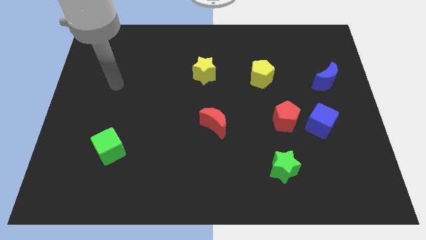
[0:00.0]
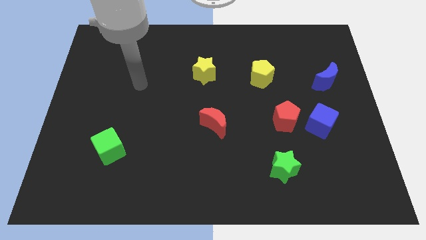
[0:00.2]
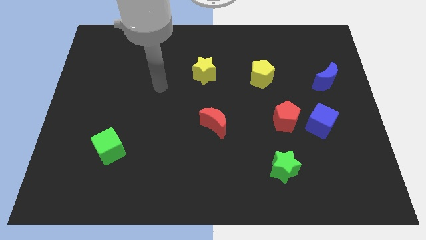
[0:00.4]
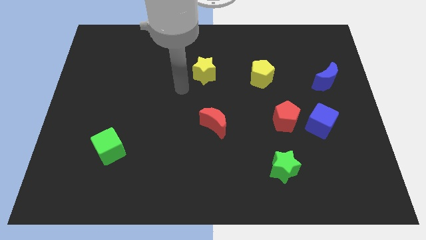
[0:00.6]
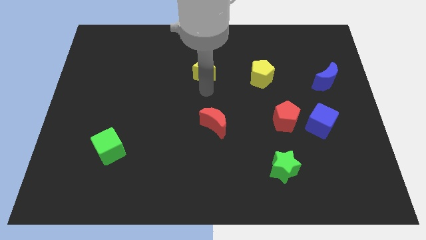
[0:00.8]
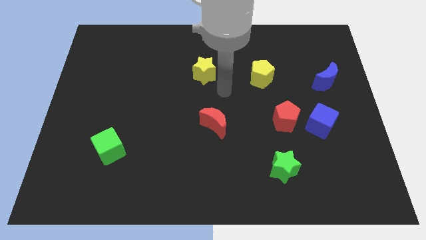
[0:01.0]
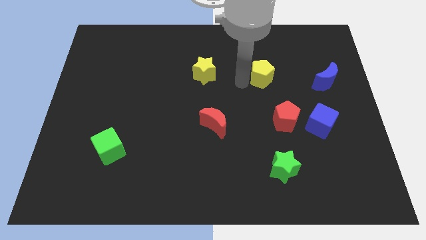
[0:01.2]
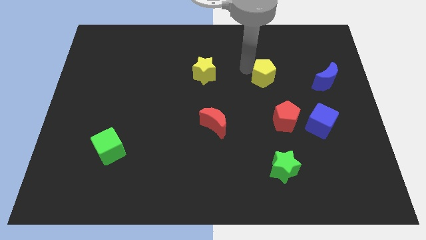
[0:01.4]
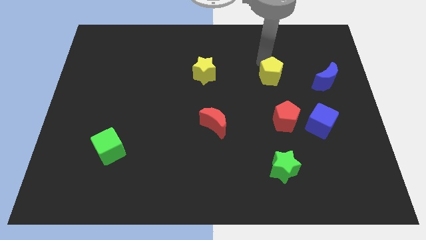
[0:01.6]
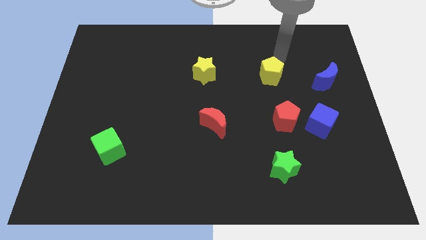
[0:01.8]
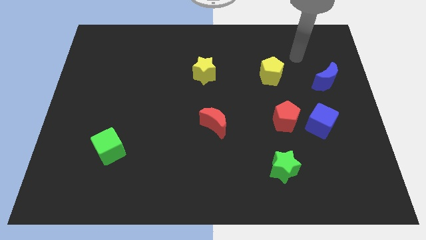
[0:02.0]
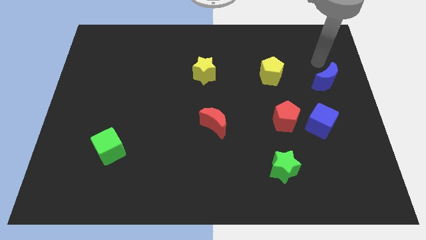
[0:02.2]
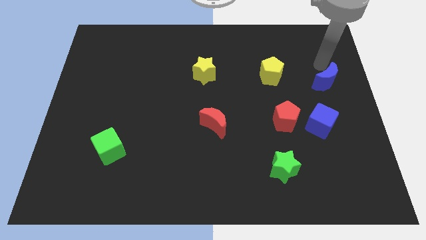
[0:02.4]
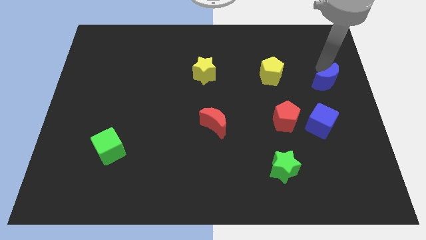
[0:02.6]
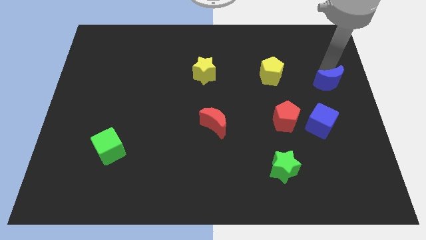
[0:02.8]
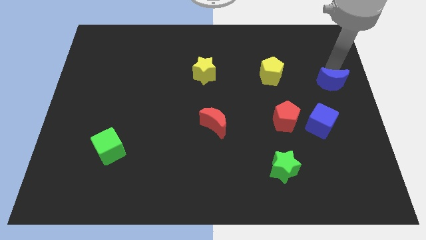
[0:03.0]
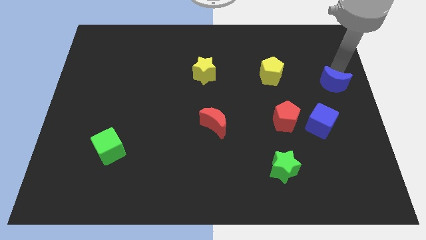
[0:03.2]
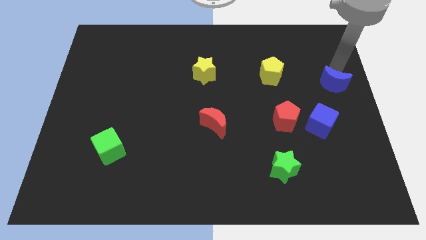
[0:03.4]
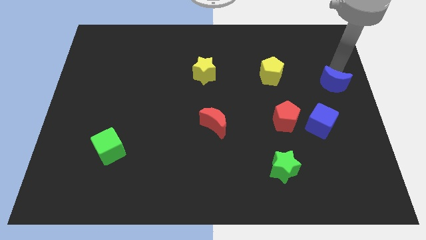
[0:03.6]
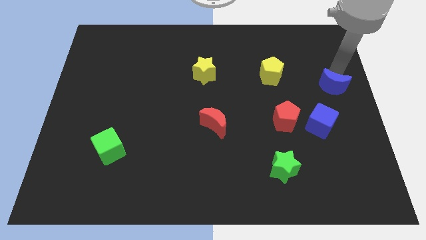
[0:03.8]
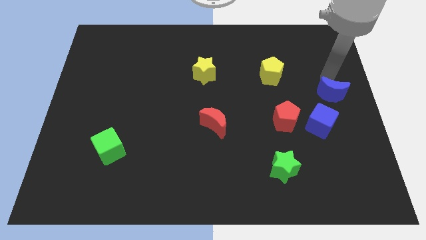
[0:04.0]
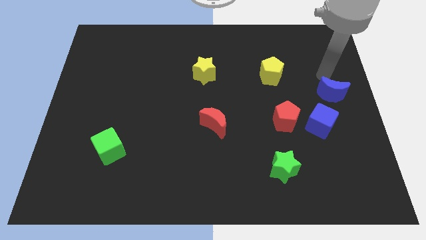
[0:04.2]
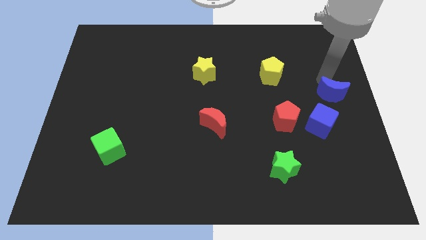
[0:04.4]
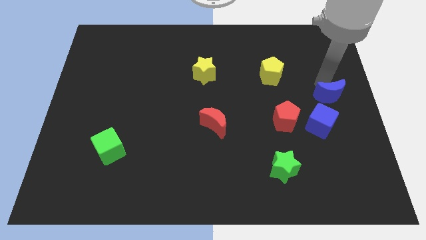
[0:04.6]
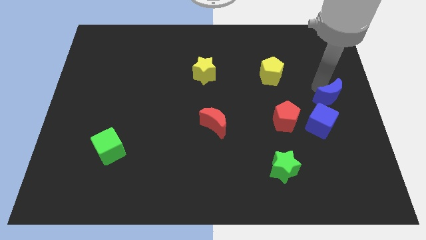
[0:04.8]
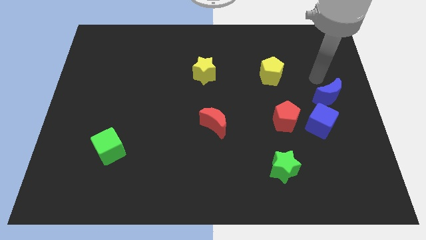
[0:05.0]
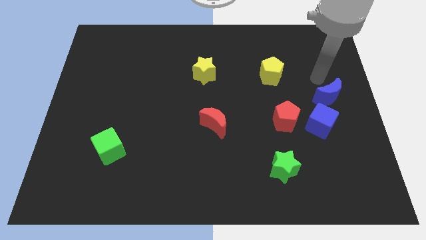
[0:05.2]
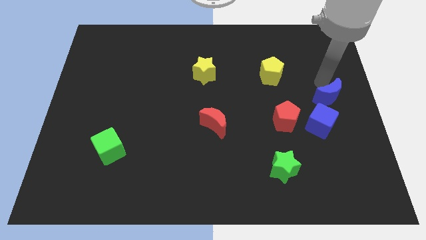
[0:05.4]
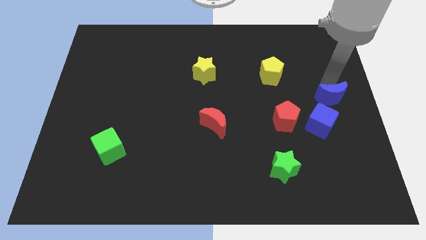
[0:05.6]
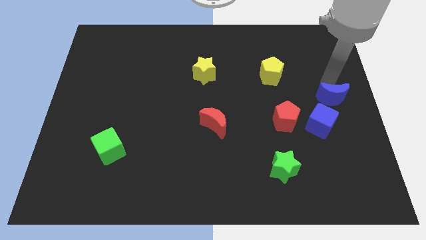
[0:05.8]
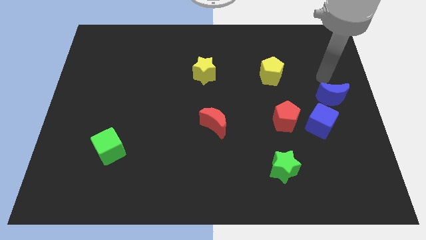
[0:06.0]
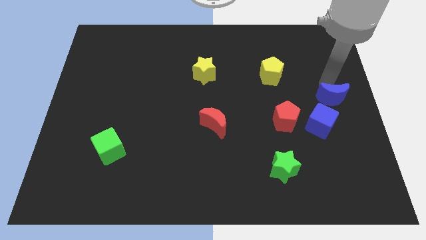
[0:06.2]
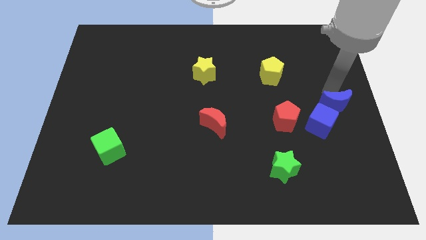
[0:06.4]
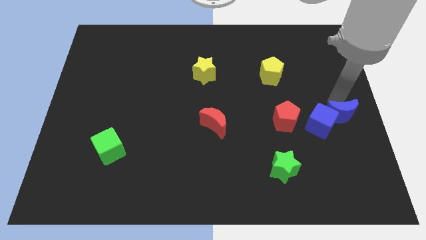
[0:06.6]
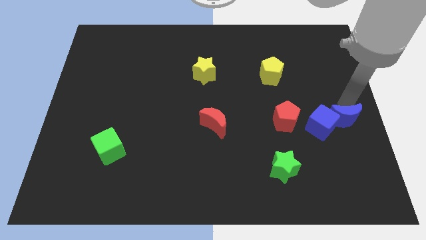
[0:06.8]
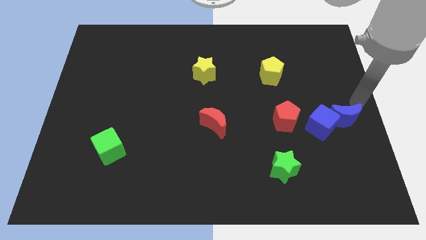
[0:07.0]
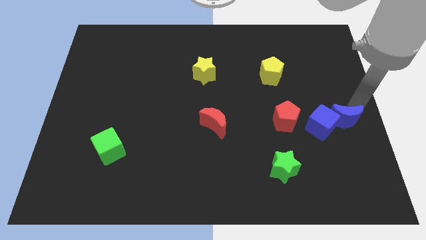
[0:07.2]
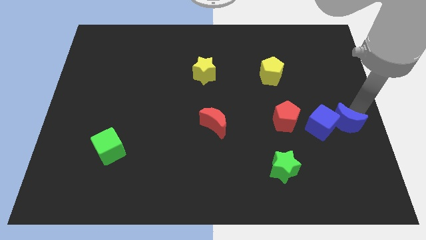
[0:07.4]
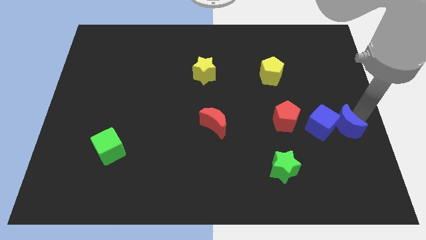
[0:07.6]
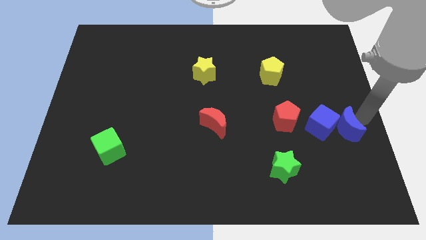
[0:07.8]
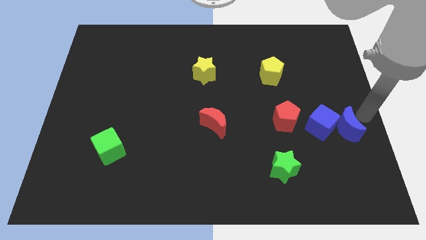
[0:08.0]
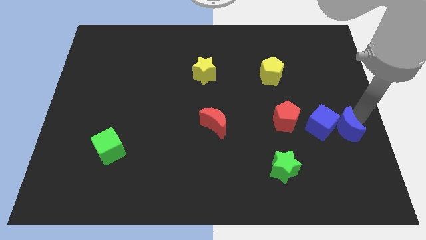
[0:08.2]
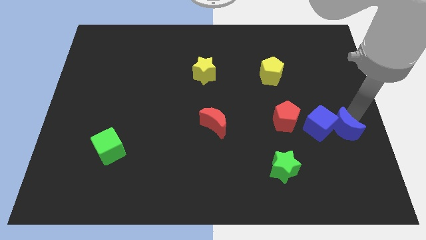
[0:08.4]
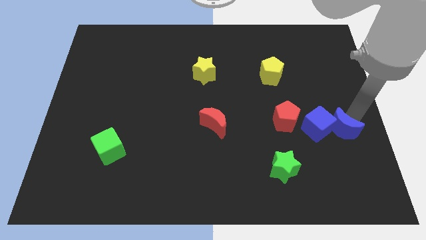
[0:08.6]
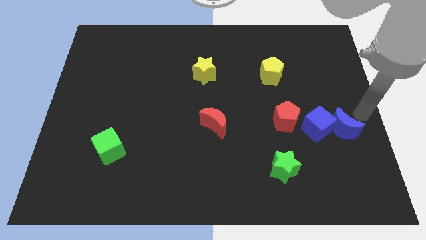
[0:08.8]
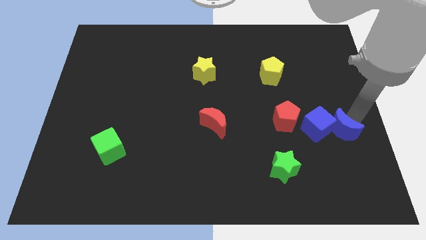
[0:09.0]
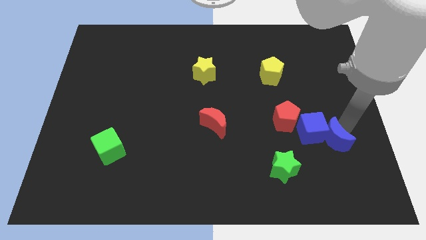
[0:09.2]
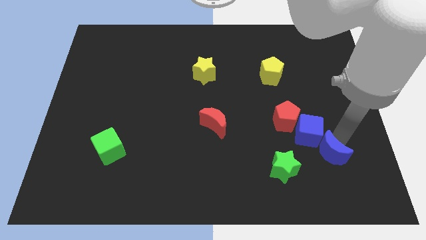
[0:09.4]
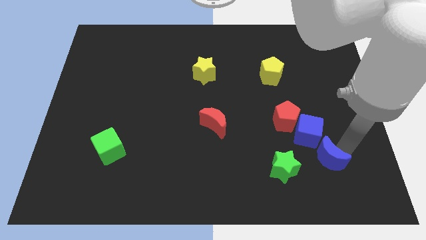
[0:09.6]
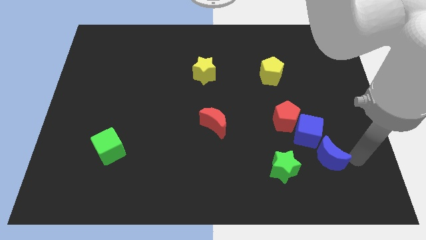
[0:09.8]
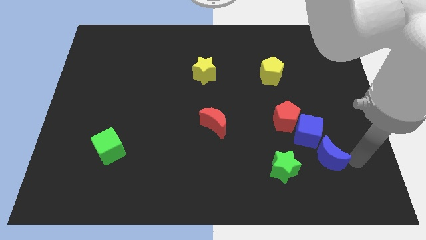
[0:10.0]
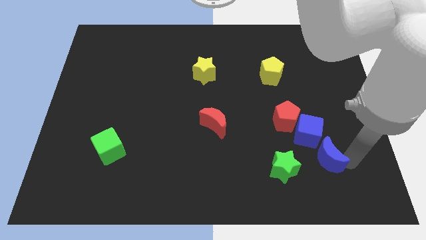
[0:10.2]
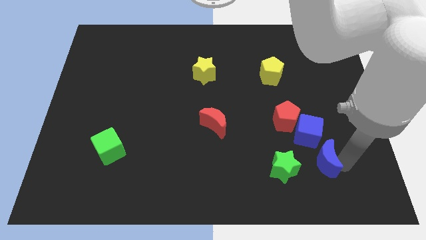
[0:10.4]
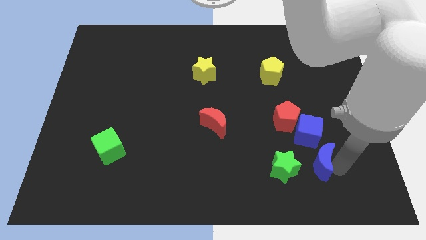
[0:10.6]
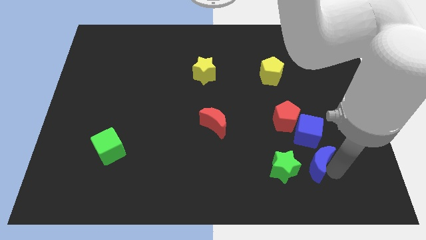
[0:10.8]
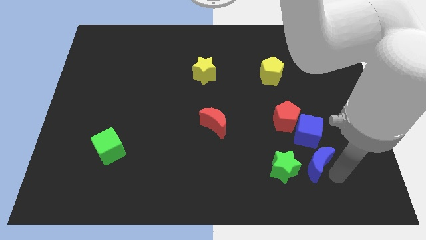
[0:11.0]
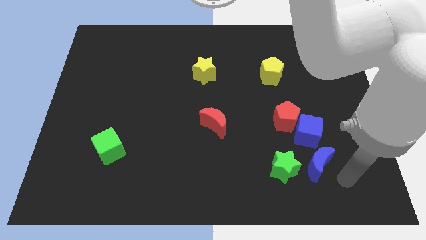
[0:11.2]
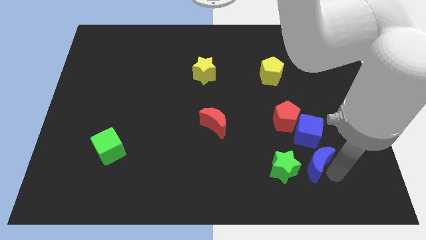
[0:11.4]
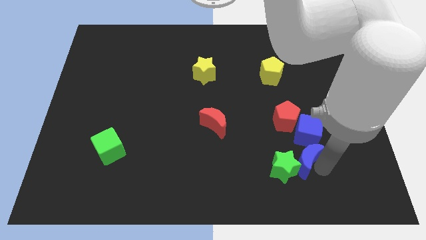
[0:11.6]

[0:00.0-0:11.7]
slide the blue moon next to the green star

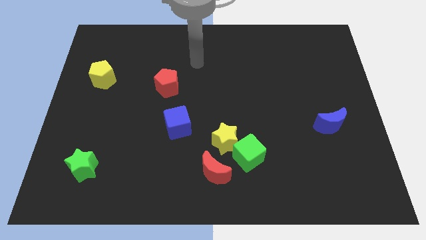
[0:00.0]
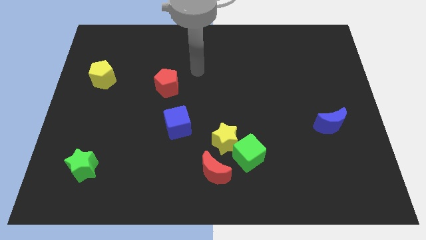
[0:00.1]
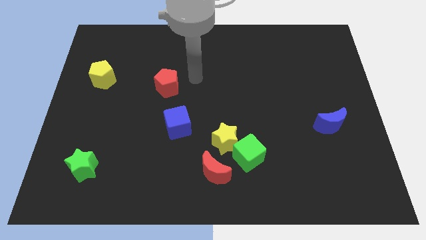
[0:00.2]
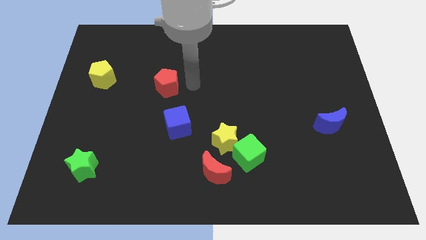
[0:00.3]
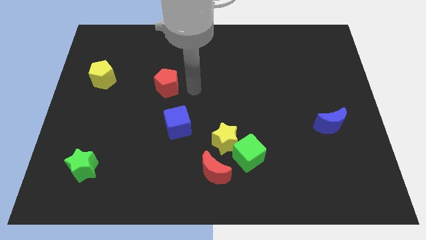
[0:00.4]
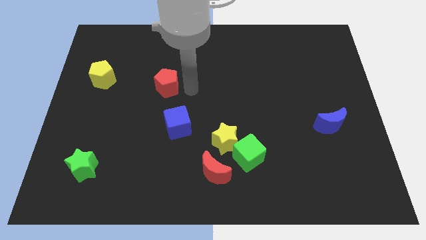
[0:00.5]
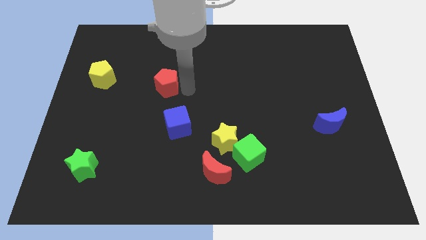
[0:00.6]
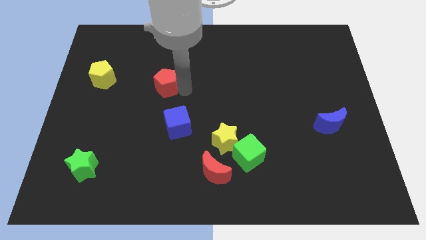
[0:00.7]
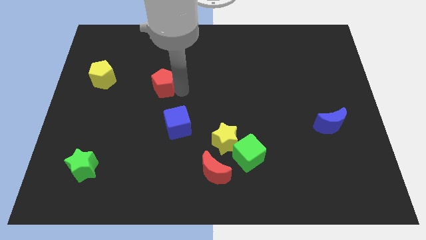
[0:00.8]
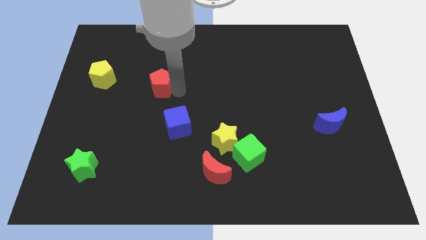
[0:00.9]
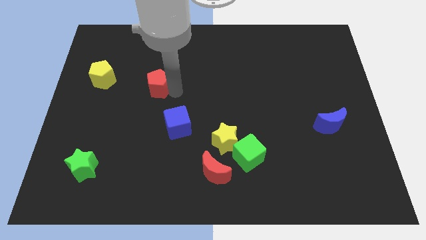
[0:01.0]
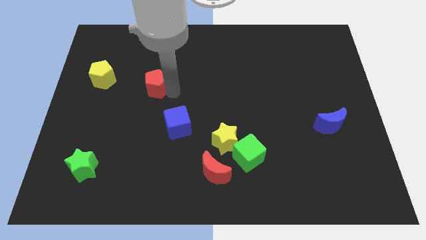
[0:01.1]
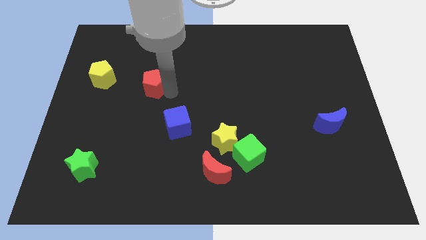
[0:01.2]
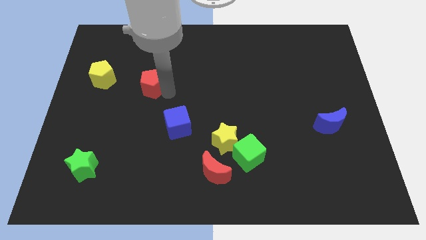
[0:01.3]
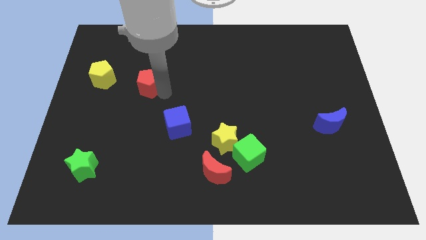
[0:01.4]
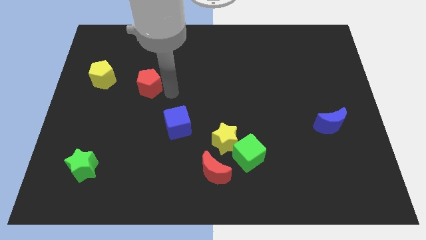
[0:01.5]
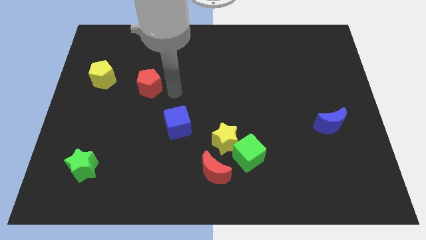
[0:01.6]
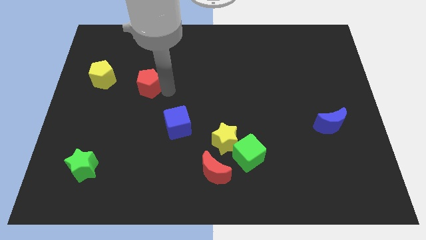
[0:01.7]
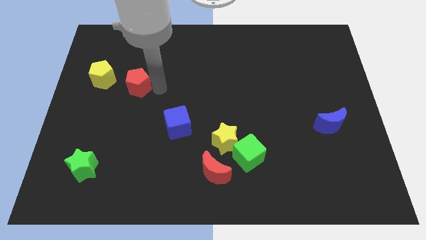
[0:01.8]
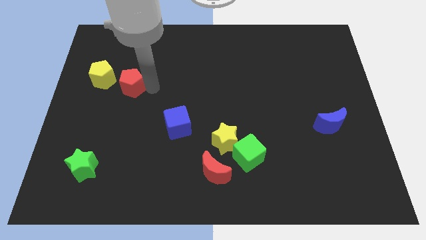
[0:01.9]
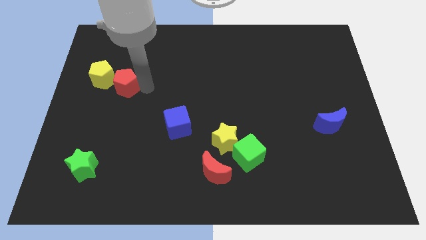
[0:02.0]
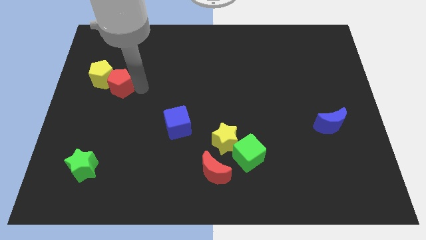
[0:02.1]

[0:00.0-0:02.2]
put the red pentagon towards the yellow pentagon
